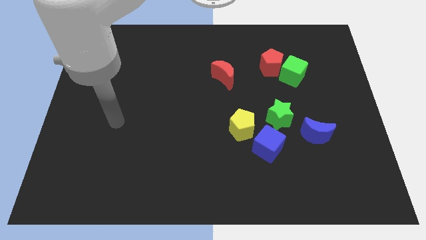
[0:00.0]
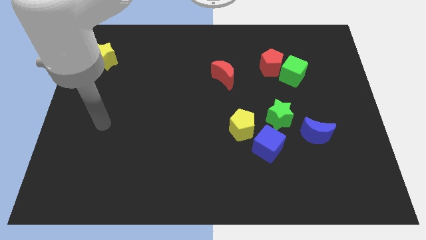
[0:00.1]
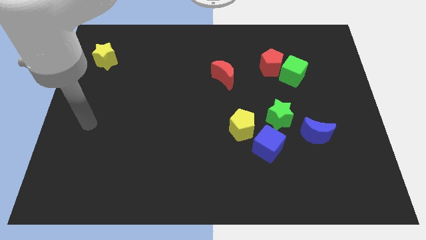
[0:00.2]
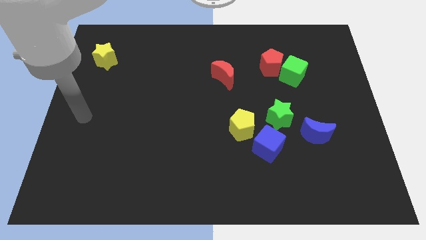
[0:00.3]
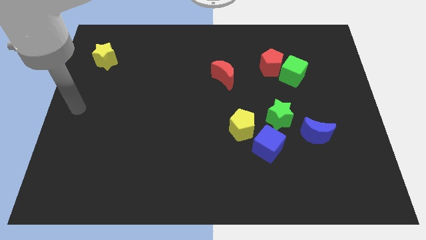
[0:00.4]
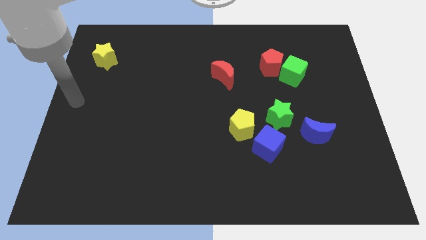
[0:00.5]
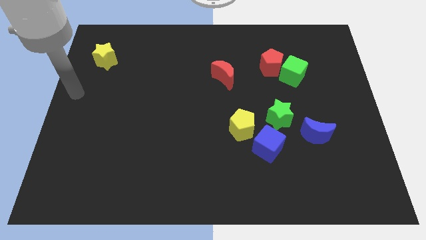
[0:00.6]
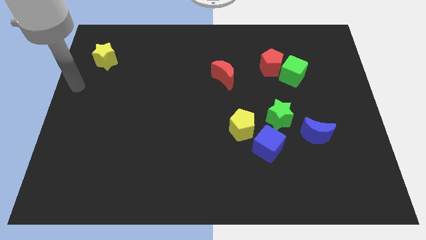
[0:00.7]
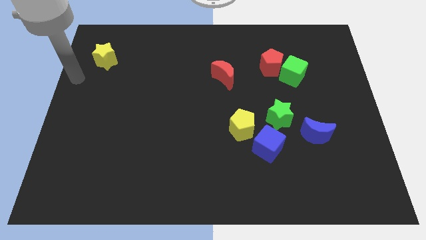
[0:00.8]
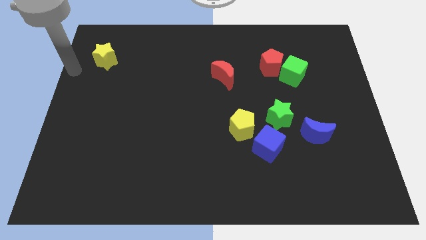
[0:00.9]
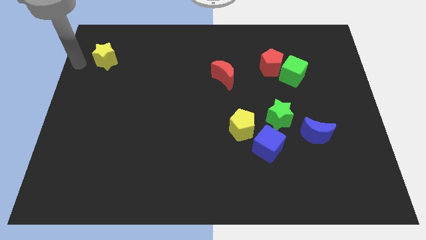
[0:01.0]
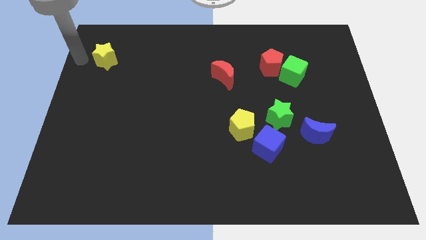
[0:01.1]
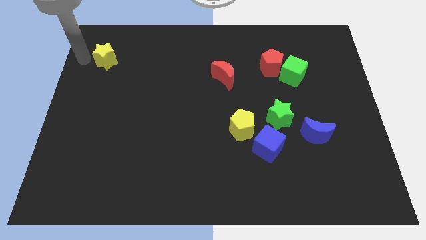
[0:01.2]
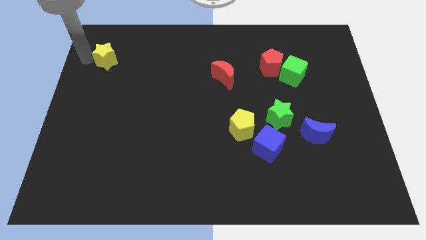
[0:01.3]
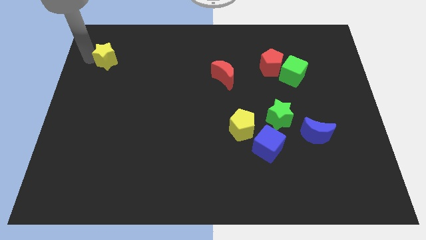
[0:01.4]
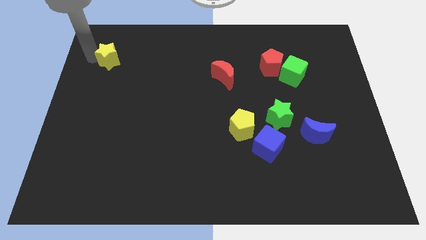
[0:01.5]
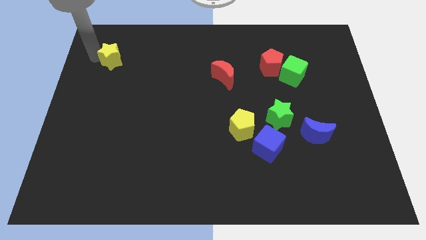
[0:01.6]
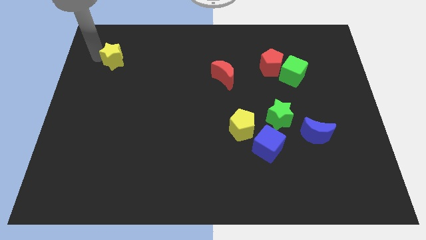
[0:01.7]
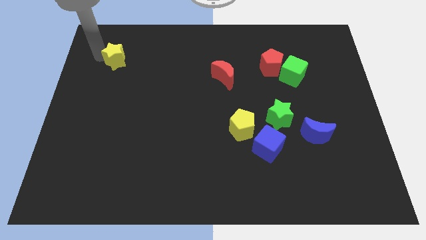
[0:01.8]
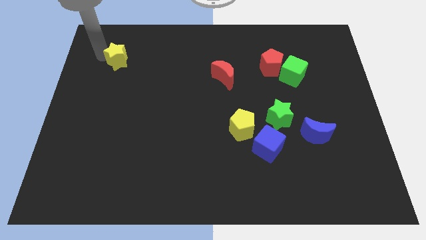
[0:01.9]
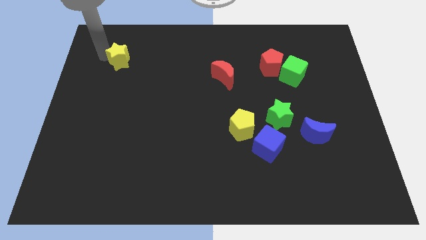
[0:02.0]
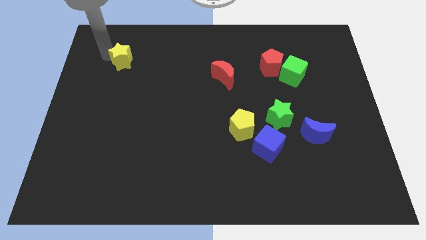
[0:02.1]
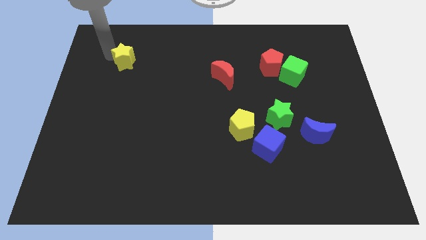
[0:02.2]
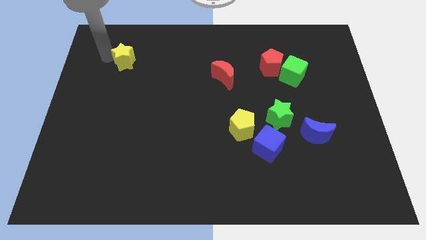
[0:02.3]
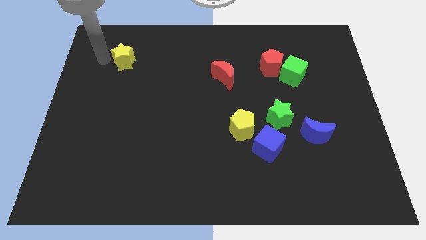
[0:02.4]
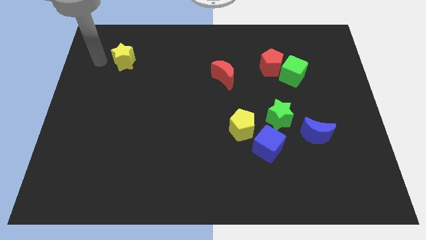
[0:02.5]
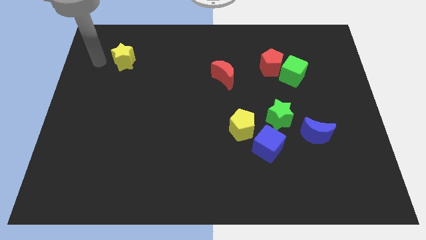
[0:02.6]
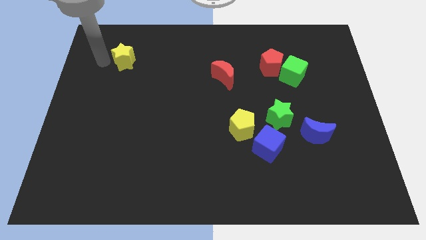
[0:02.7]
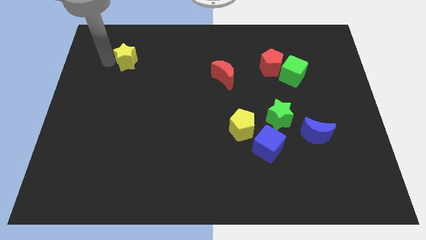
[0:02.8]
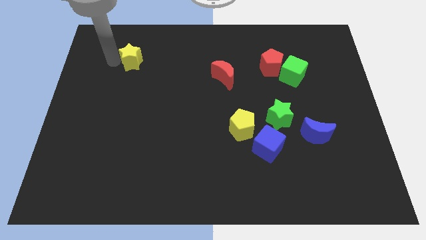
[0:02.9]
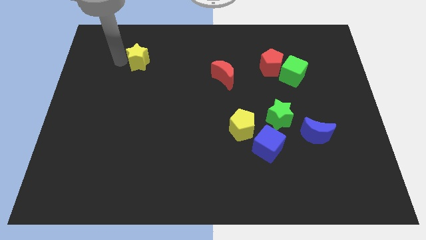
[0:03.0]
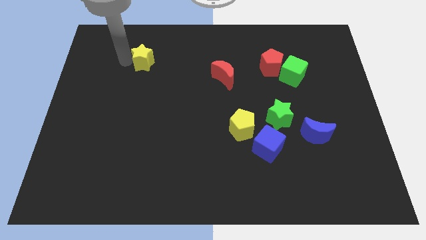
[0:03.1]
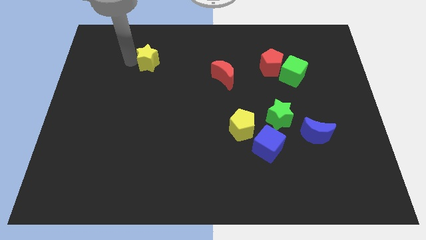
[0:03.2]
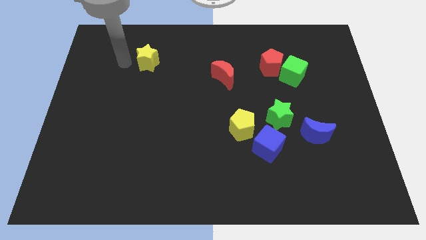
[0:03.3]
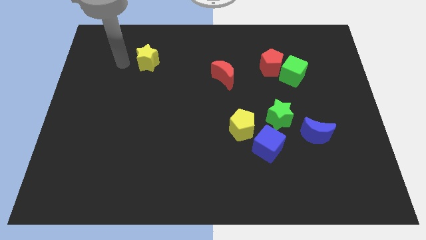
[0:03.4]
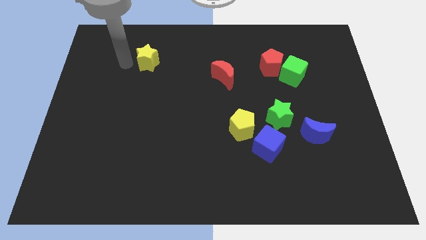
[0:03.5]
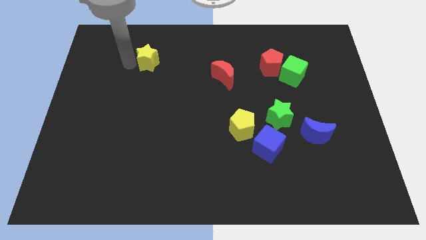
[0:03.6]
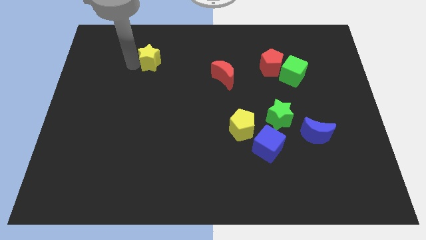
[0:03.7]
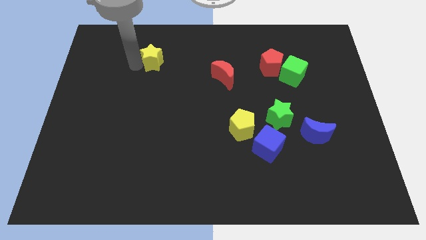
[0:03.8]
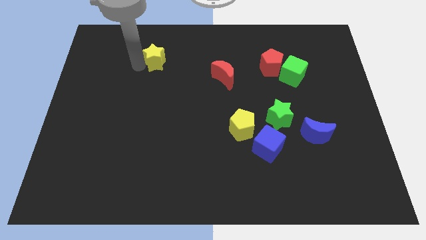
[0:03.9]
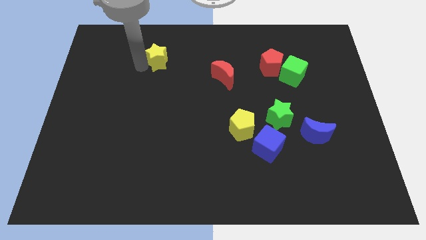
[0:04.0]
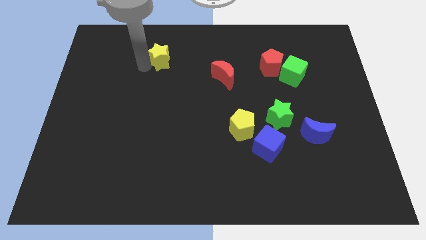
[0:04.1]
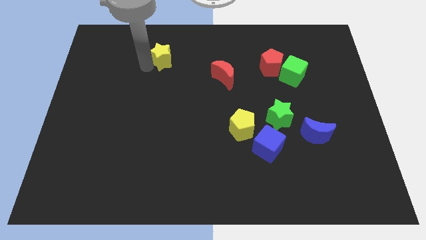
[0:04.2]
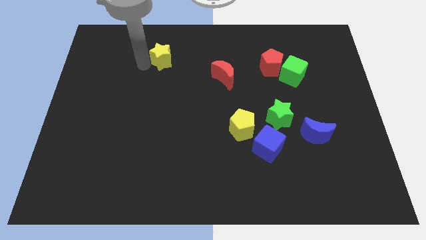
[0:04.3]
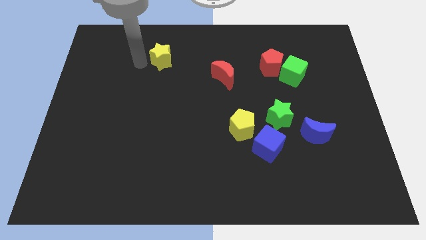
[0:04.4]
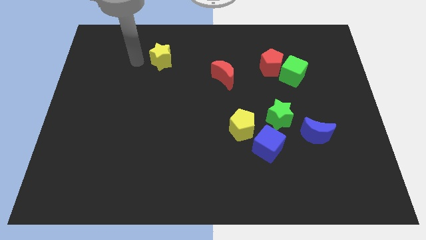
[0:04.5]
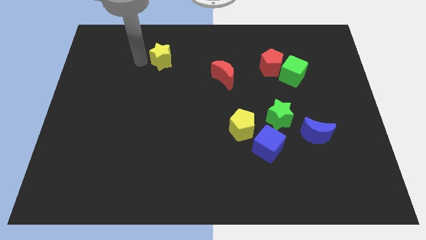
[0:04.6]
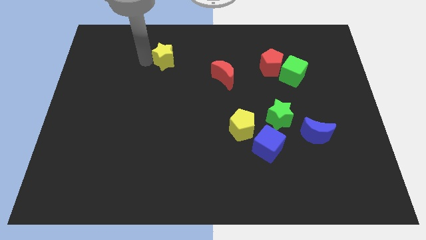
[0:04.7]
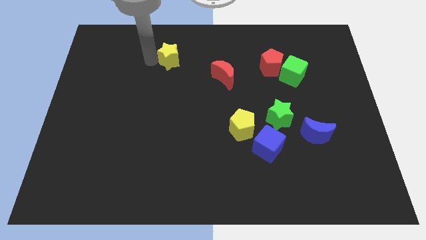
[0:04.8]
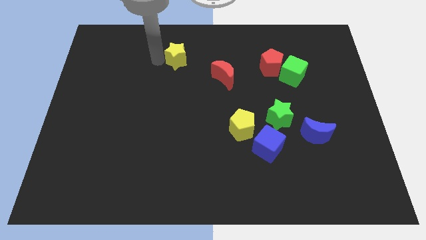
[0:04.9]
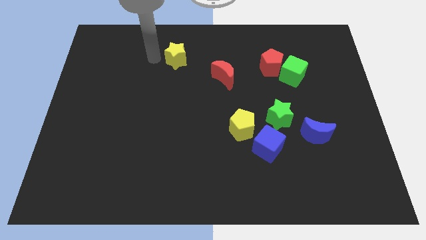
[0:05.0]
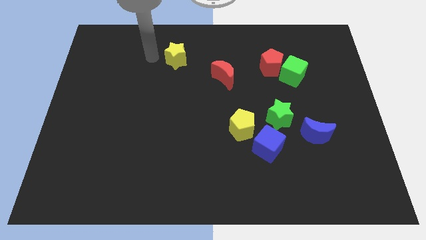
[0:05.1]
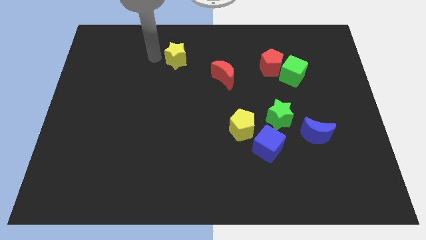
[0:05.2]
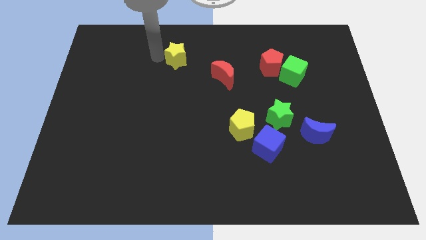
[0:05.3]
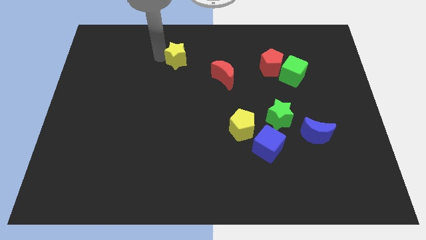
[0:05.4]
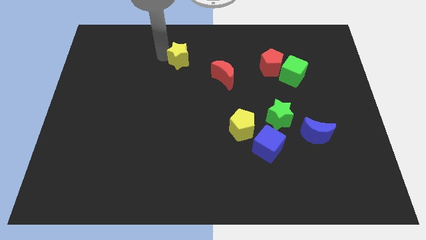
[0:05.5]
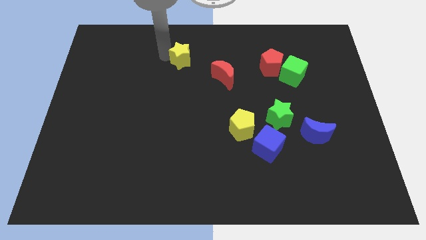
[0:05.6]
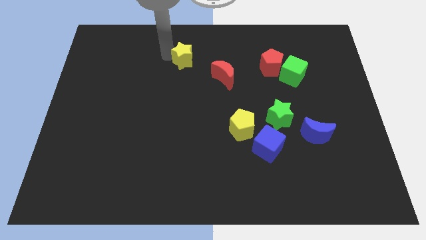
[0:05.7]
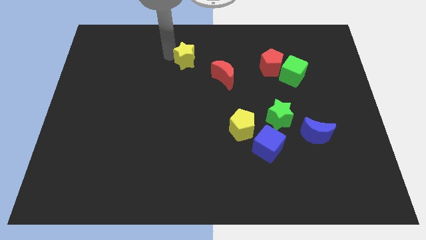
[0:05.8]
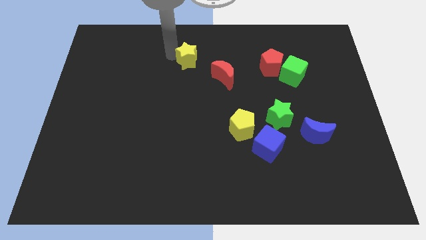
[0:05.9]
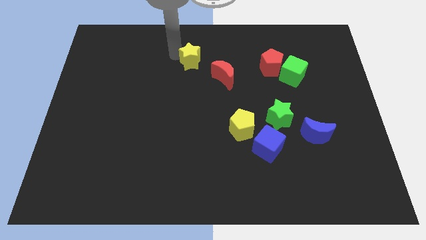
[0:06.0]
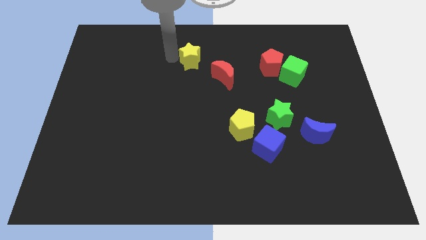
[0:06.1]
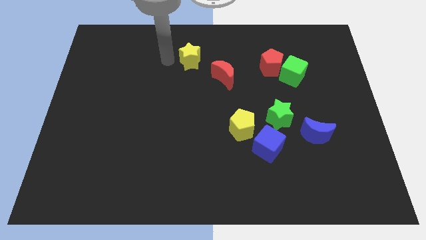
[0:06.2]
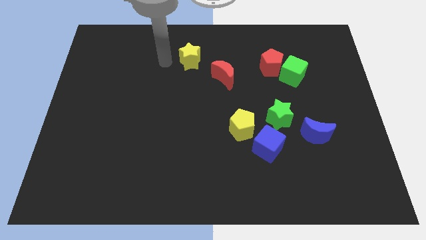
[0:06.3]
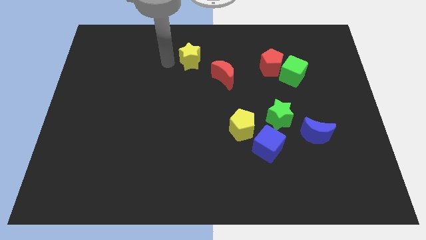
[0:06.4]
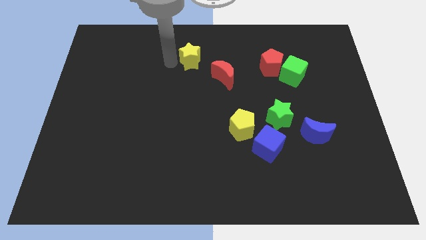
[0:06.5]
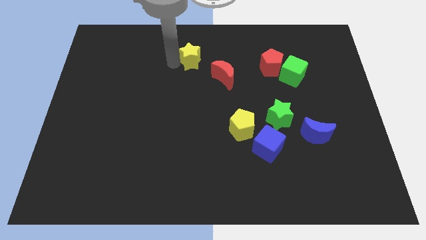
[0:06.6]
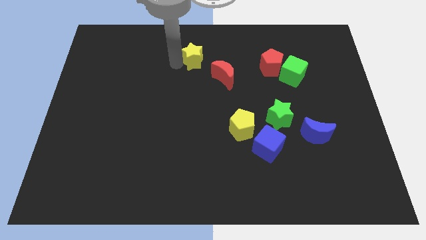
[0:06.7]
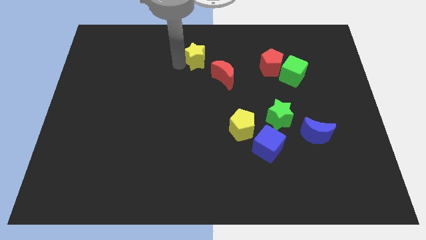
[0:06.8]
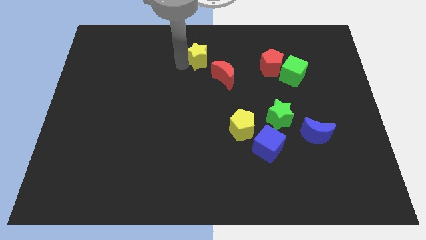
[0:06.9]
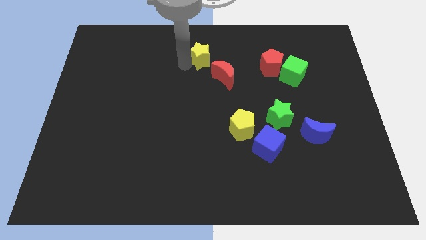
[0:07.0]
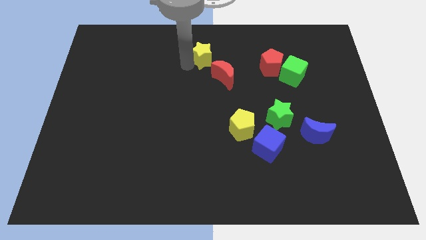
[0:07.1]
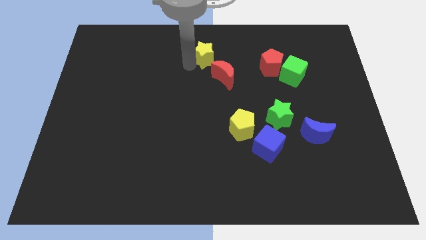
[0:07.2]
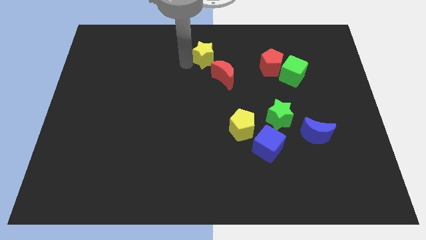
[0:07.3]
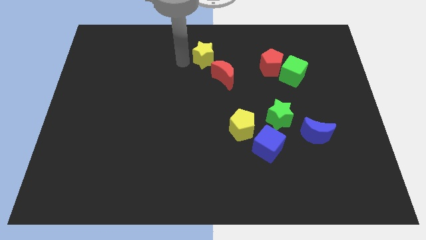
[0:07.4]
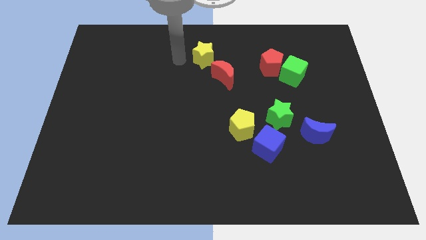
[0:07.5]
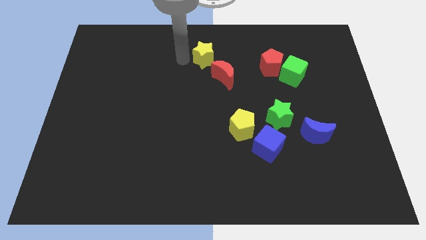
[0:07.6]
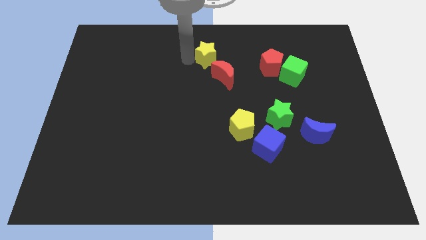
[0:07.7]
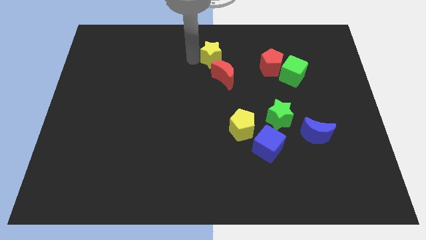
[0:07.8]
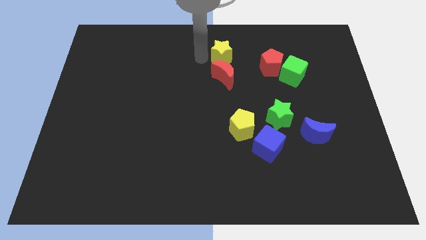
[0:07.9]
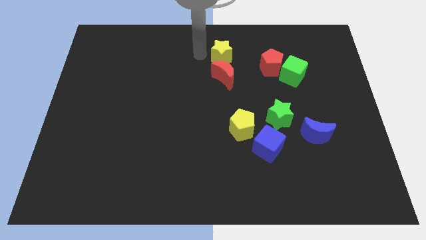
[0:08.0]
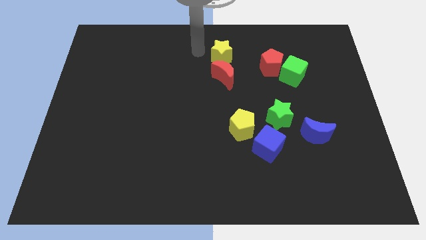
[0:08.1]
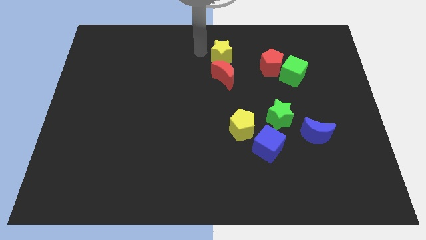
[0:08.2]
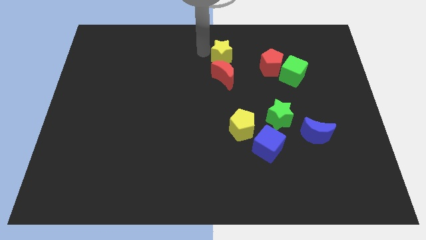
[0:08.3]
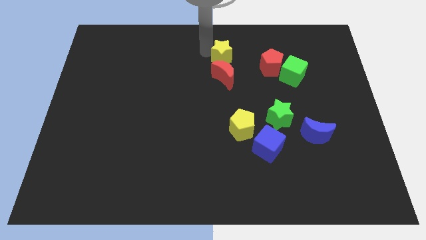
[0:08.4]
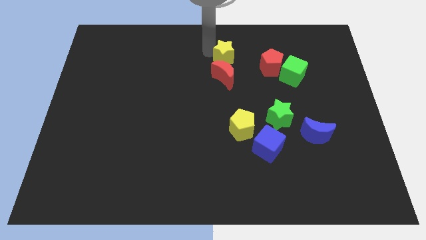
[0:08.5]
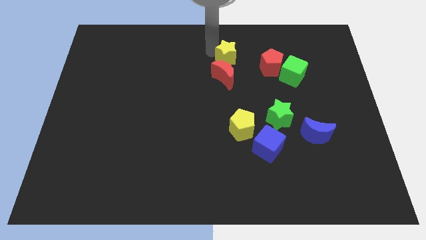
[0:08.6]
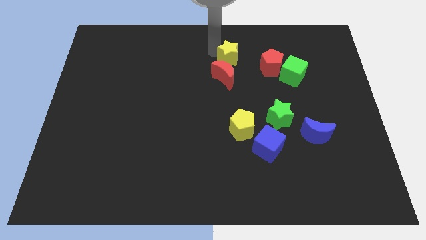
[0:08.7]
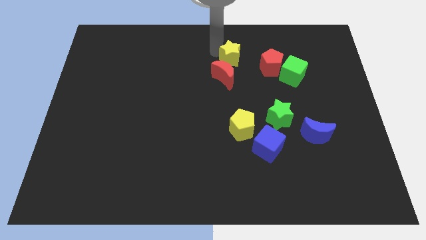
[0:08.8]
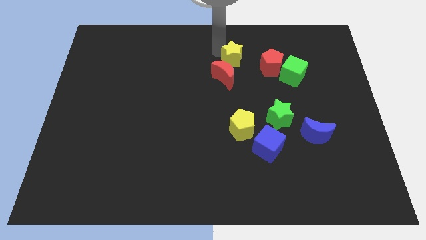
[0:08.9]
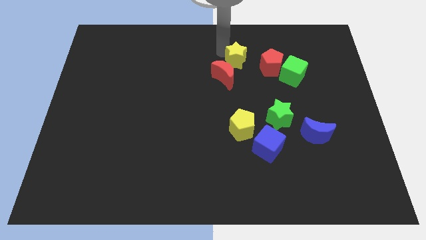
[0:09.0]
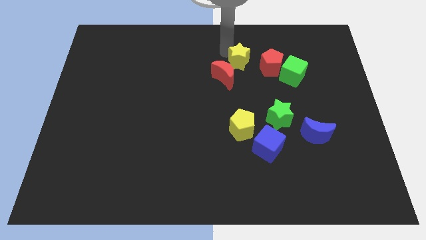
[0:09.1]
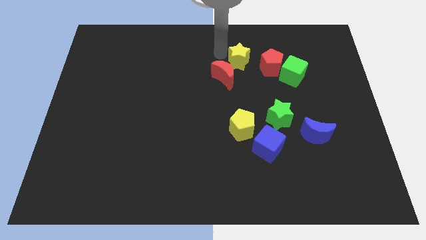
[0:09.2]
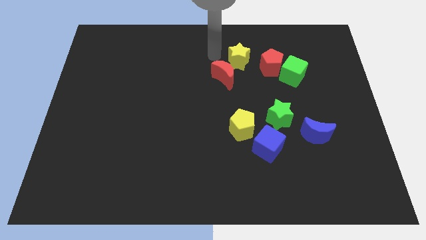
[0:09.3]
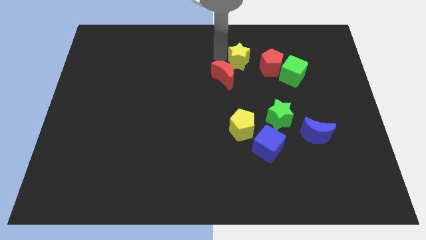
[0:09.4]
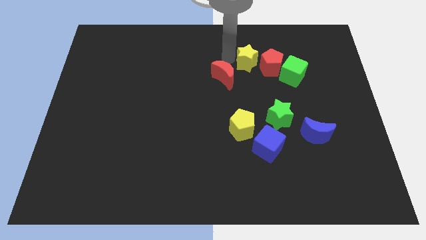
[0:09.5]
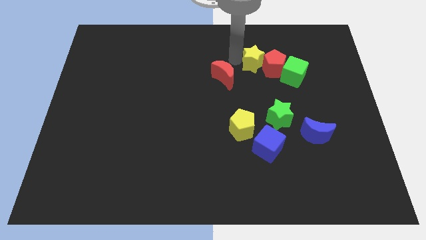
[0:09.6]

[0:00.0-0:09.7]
slide the yellow star towards the red pentagon
